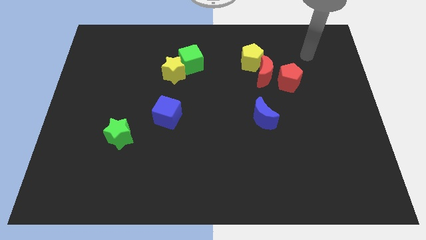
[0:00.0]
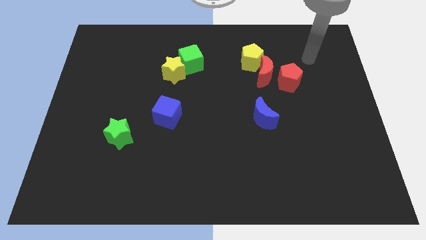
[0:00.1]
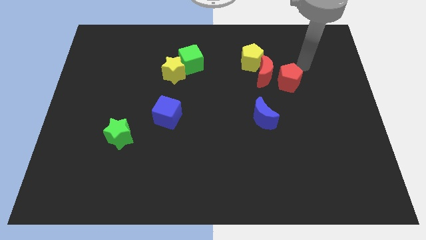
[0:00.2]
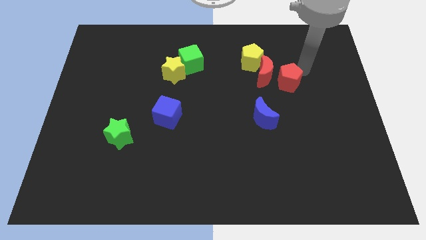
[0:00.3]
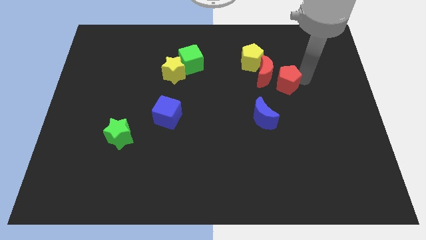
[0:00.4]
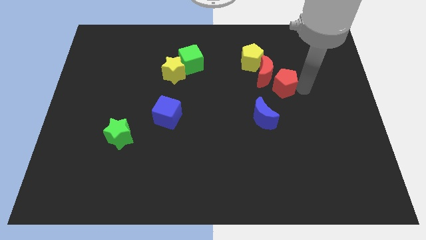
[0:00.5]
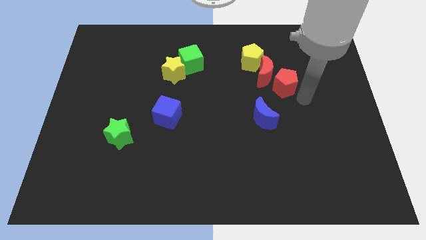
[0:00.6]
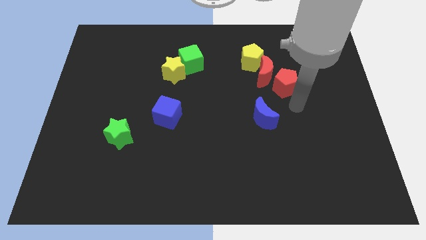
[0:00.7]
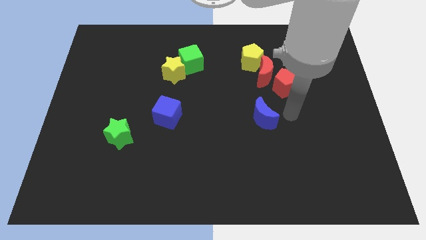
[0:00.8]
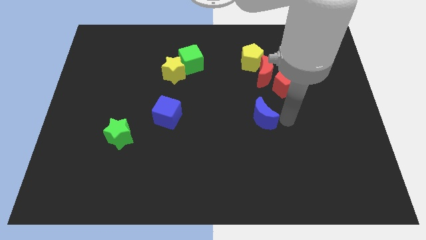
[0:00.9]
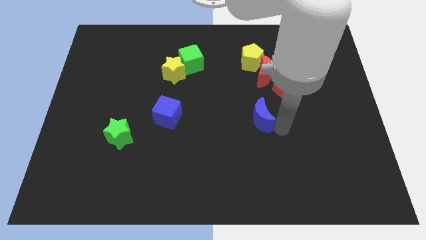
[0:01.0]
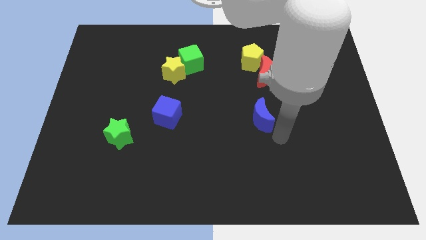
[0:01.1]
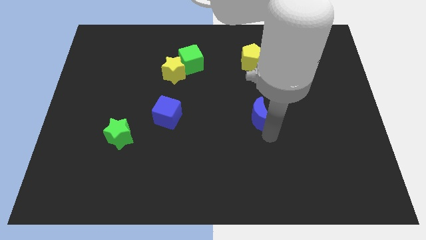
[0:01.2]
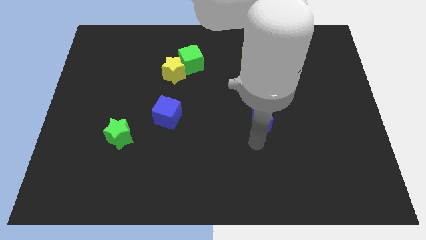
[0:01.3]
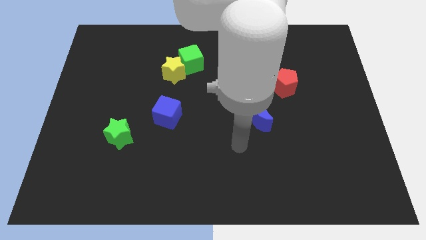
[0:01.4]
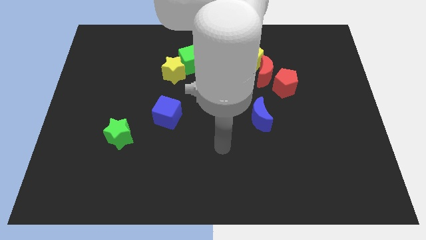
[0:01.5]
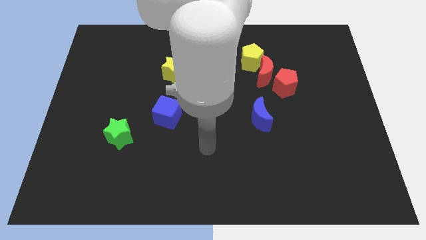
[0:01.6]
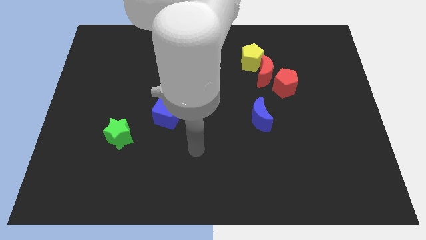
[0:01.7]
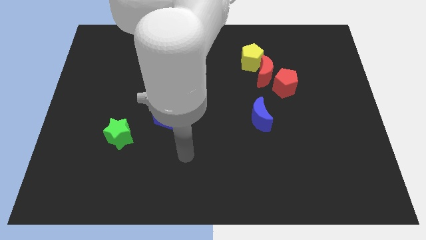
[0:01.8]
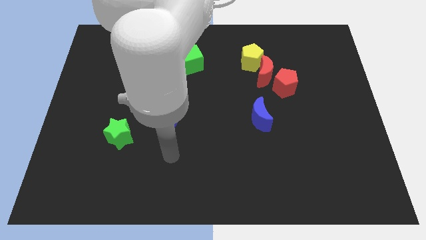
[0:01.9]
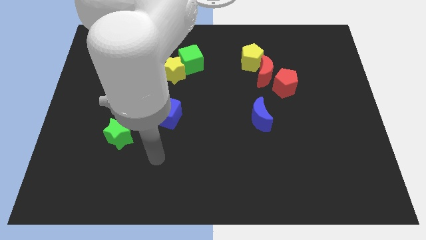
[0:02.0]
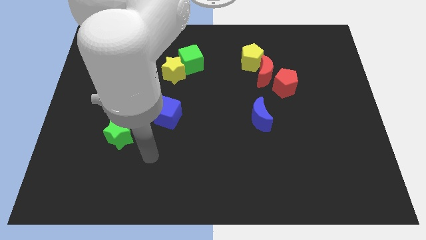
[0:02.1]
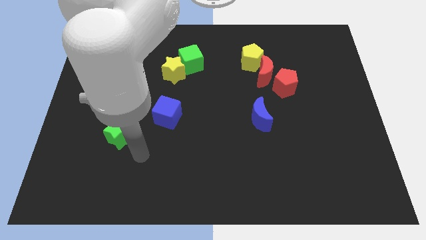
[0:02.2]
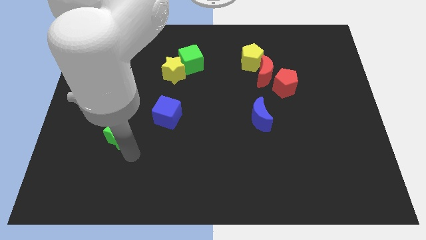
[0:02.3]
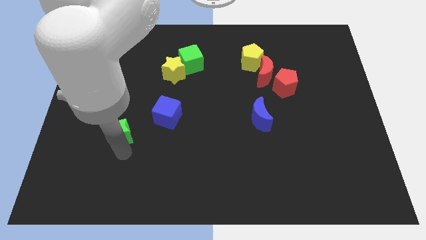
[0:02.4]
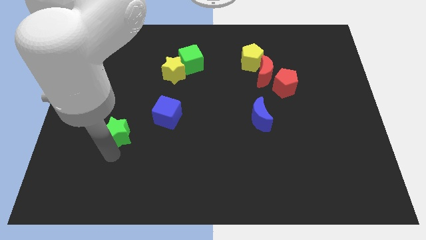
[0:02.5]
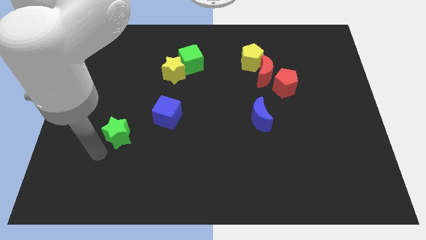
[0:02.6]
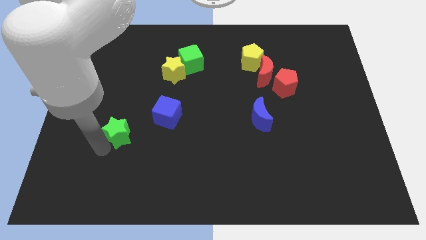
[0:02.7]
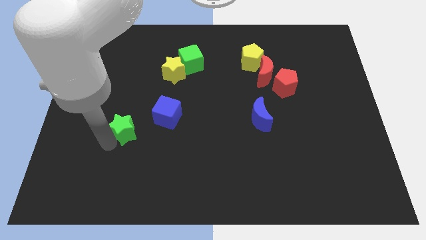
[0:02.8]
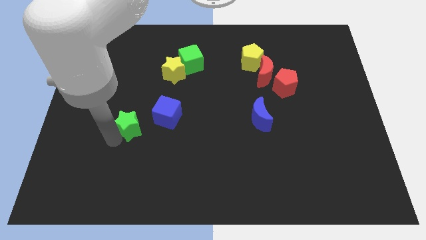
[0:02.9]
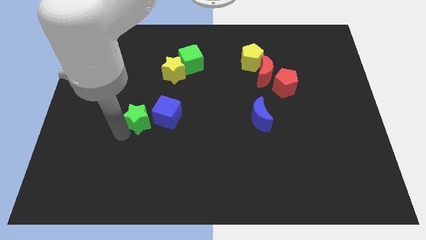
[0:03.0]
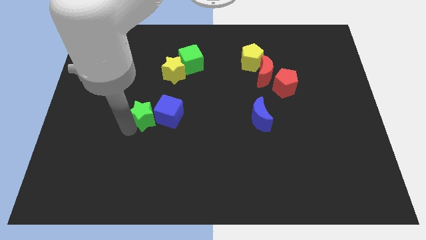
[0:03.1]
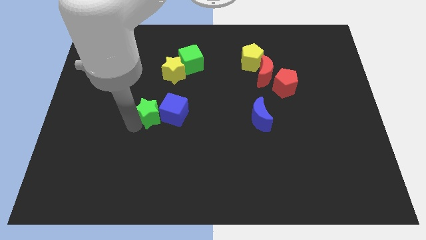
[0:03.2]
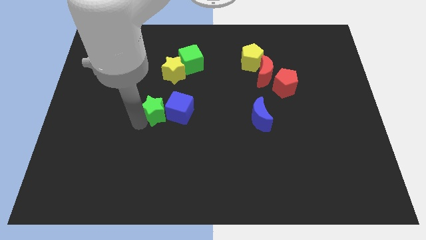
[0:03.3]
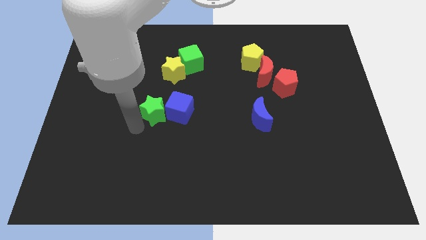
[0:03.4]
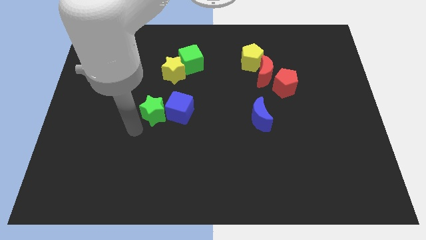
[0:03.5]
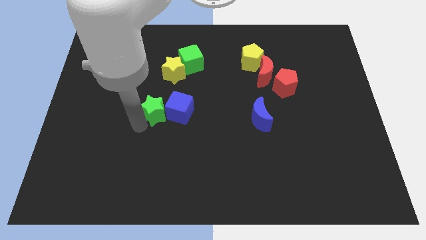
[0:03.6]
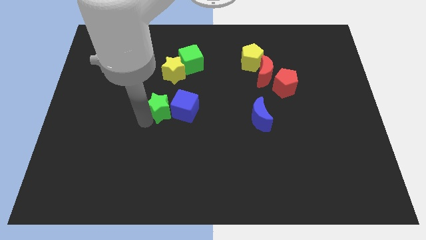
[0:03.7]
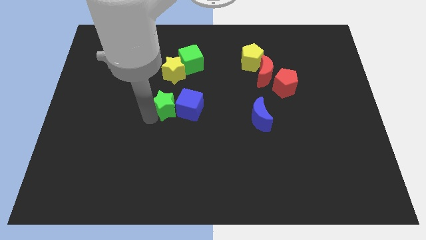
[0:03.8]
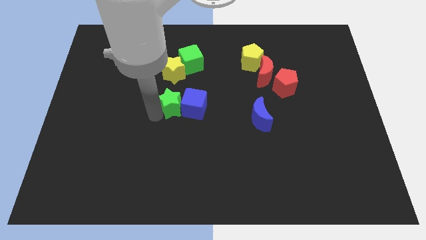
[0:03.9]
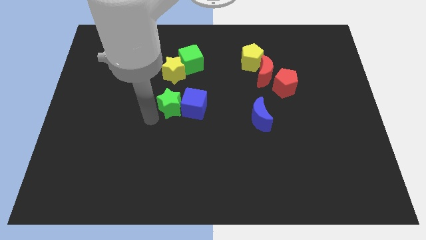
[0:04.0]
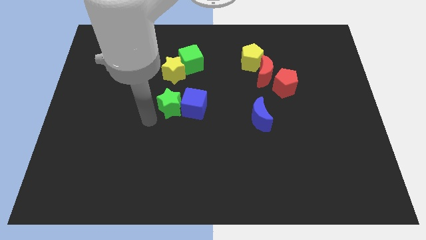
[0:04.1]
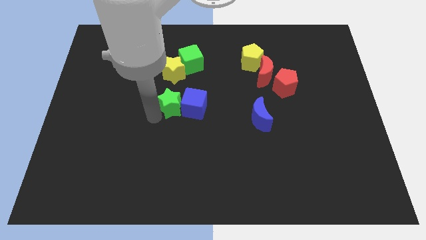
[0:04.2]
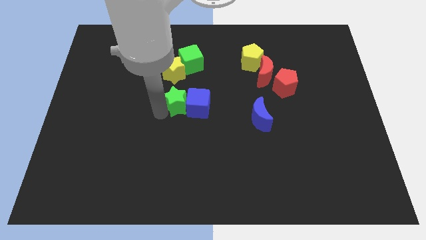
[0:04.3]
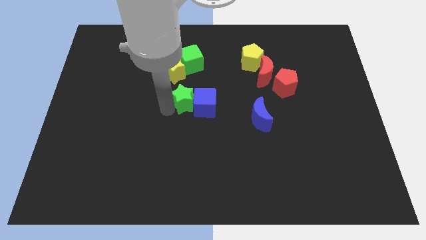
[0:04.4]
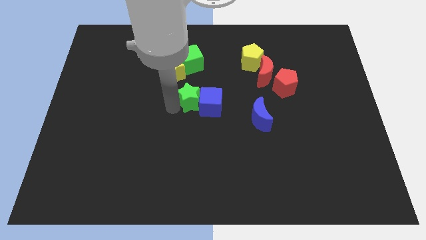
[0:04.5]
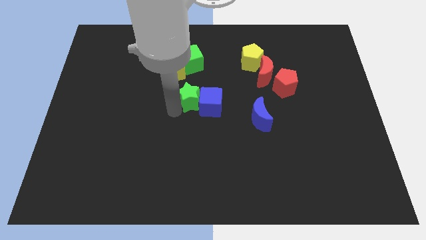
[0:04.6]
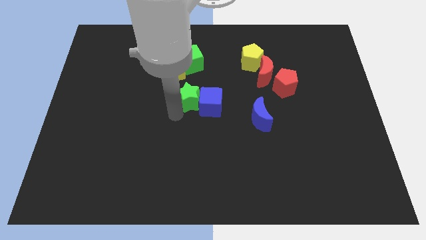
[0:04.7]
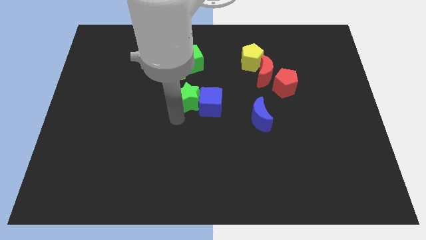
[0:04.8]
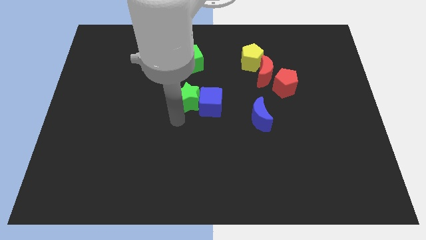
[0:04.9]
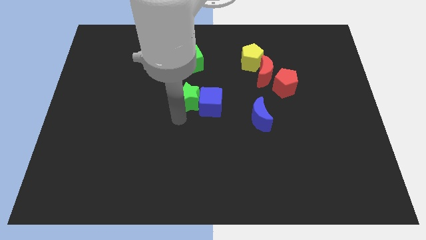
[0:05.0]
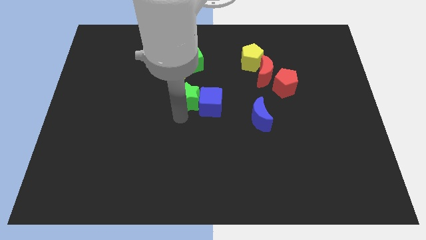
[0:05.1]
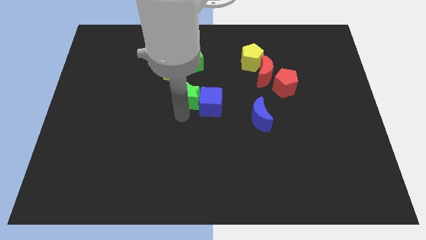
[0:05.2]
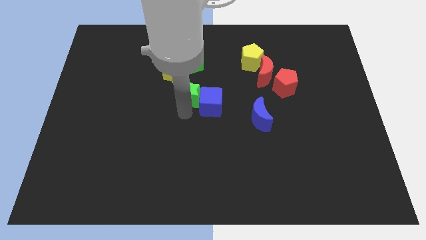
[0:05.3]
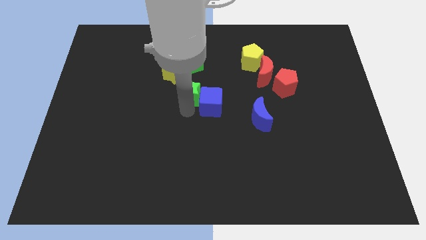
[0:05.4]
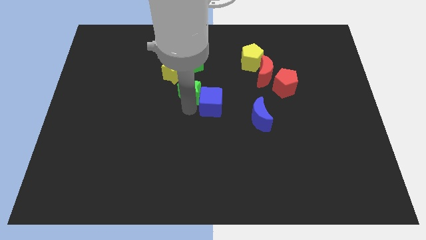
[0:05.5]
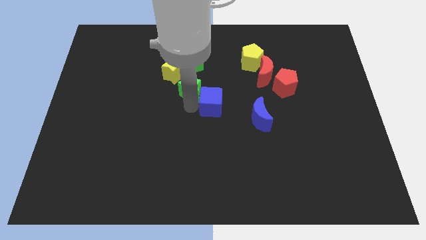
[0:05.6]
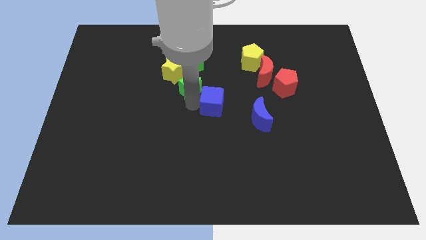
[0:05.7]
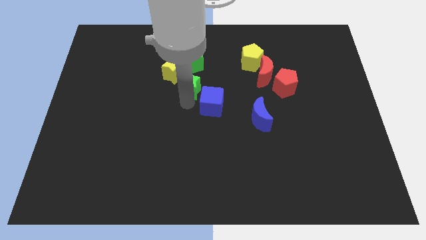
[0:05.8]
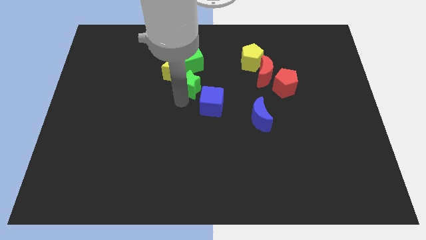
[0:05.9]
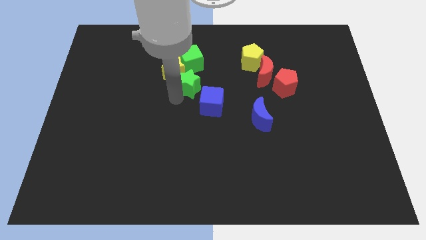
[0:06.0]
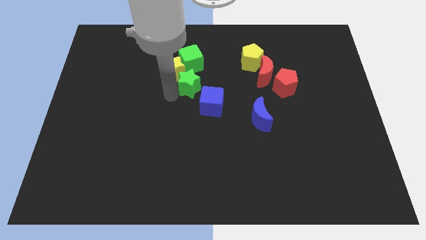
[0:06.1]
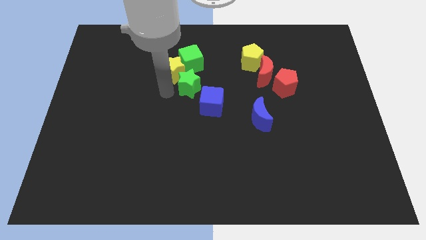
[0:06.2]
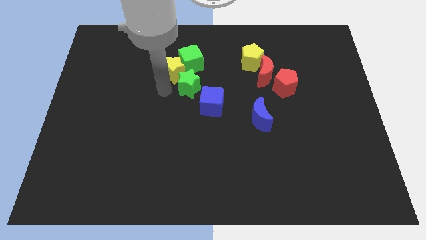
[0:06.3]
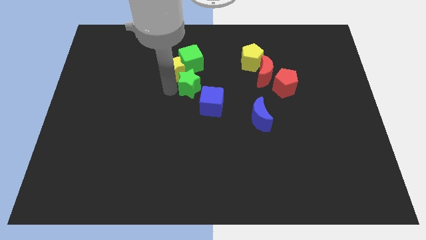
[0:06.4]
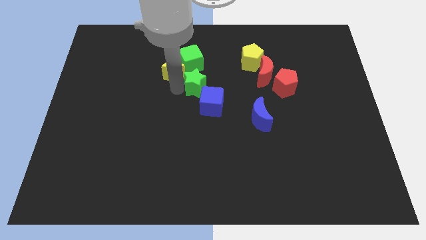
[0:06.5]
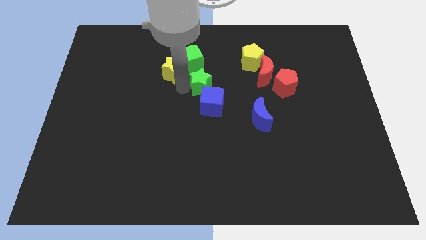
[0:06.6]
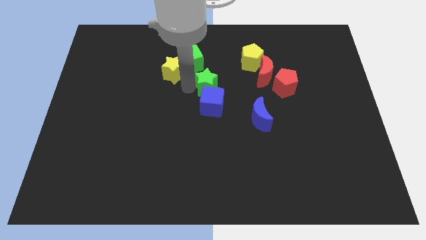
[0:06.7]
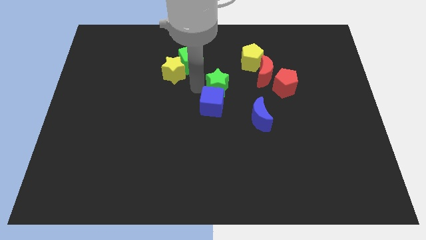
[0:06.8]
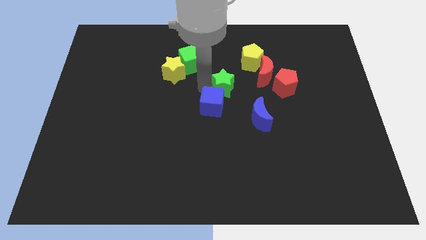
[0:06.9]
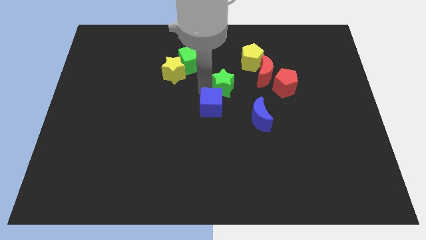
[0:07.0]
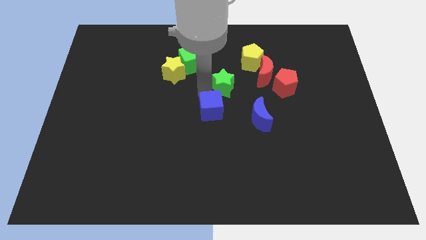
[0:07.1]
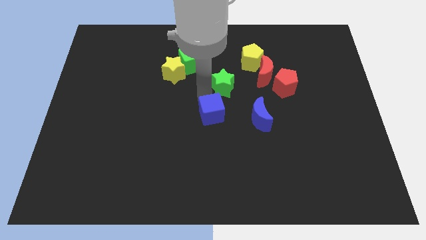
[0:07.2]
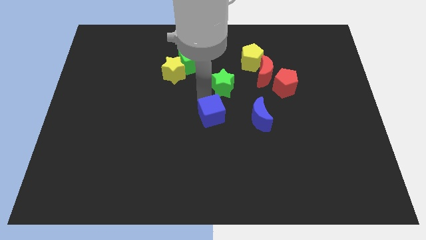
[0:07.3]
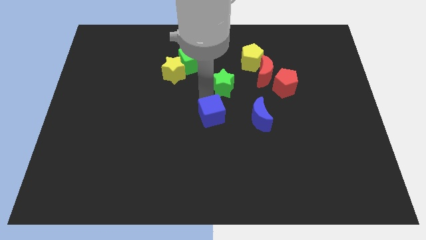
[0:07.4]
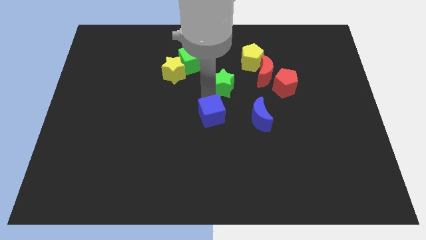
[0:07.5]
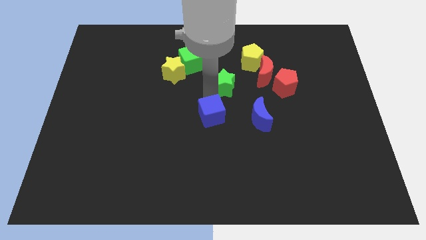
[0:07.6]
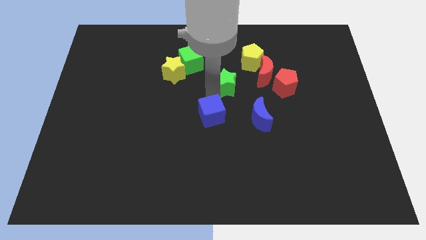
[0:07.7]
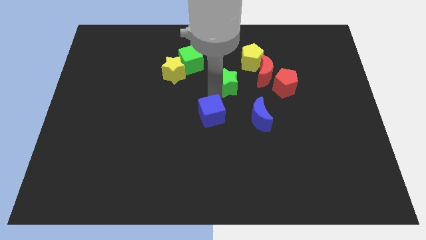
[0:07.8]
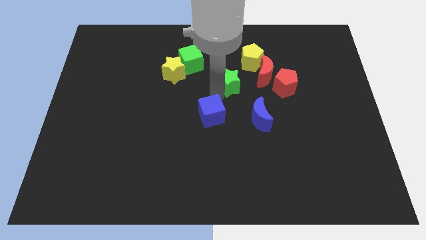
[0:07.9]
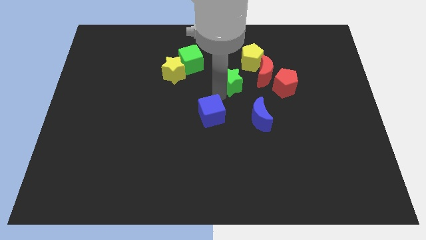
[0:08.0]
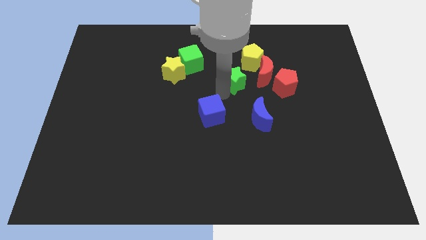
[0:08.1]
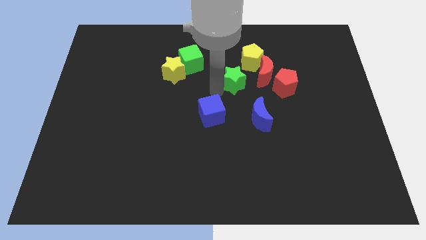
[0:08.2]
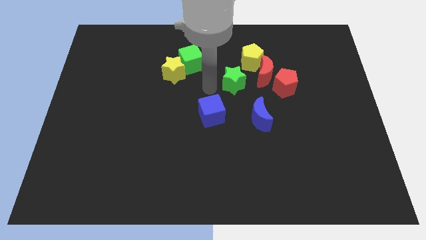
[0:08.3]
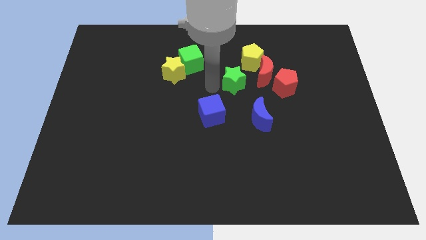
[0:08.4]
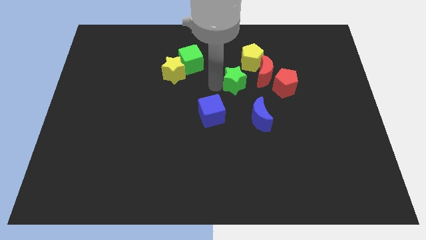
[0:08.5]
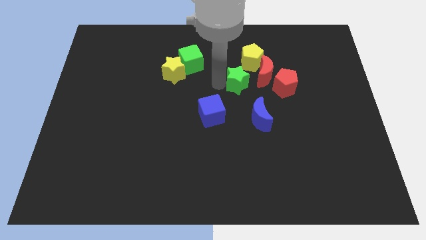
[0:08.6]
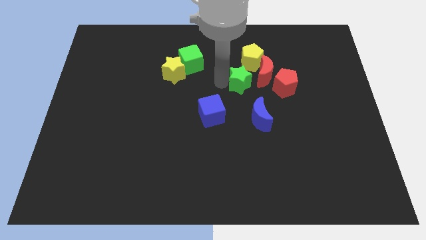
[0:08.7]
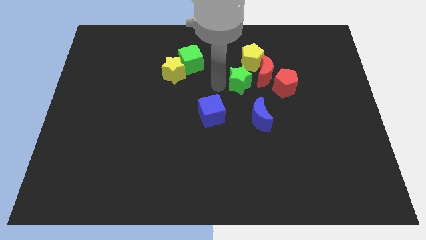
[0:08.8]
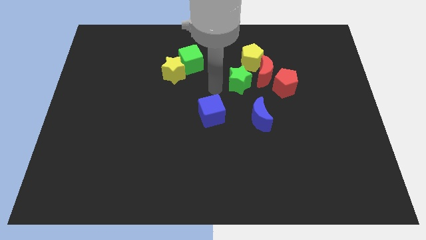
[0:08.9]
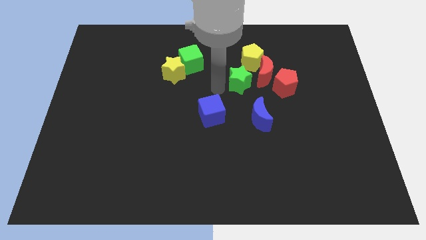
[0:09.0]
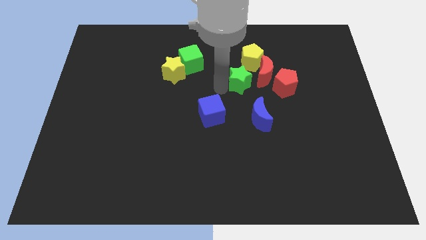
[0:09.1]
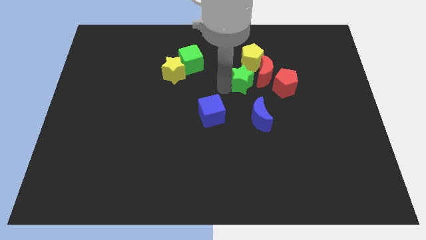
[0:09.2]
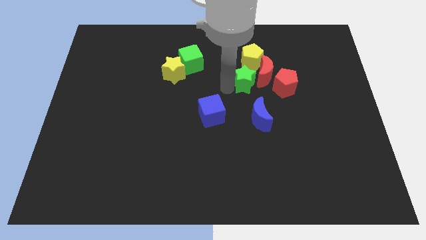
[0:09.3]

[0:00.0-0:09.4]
move the green star next to the red moon
